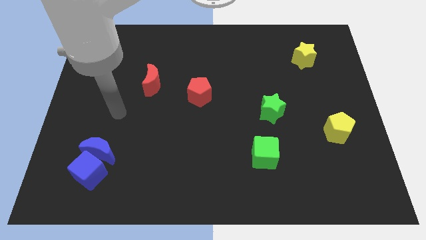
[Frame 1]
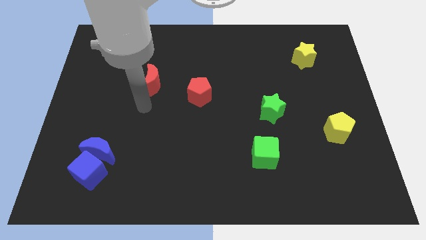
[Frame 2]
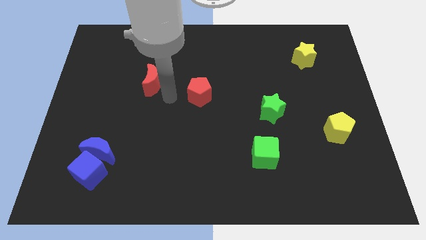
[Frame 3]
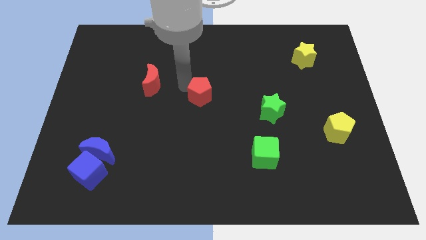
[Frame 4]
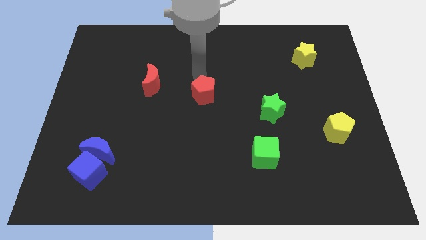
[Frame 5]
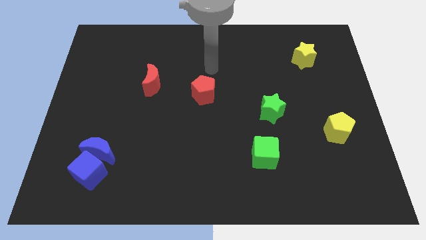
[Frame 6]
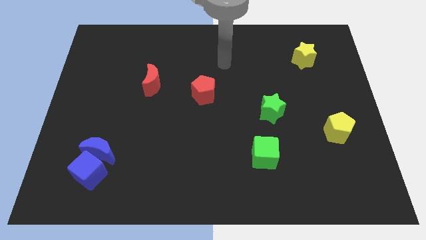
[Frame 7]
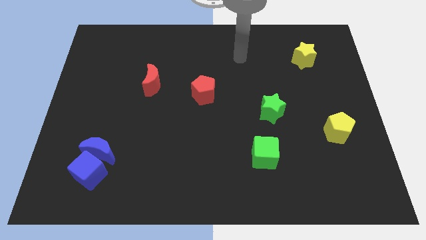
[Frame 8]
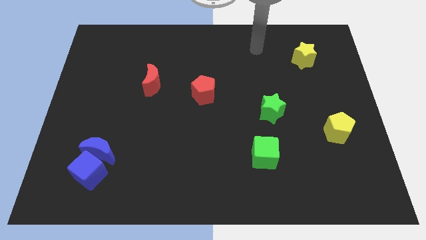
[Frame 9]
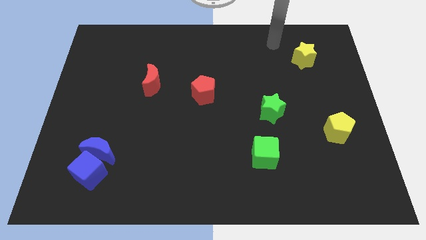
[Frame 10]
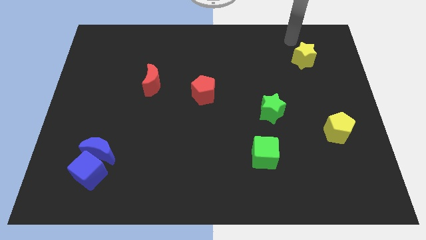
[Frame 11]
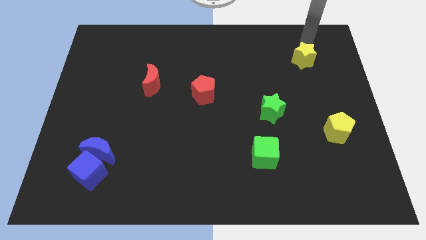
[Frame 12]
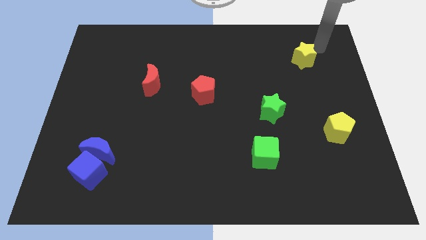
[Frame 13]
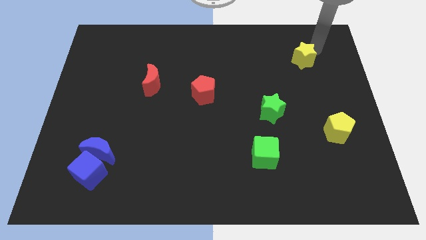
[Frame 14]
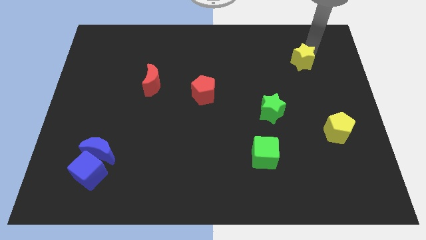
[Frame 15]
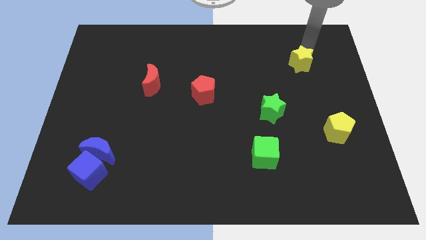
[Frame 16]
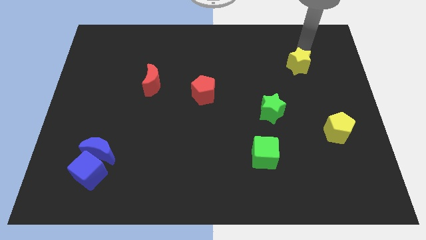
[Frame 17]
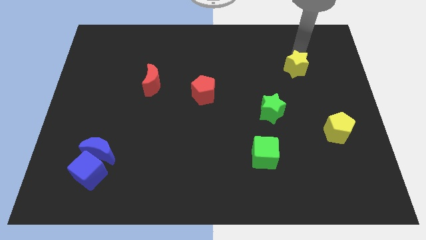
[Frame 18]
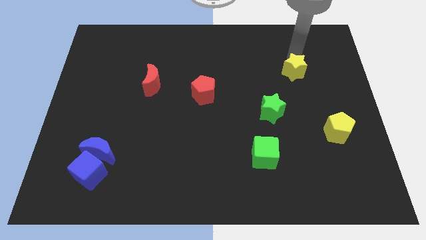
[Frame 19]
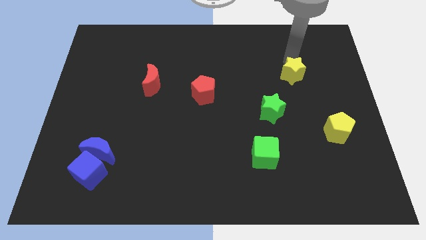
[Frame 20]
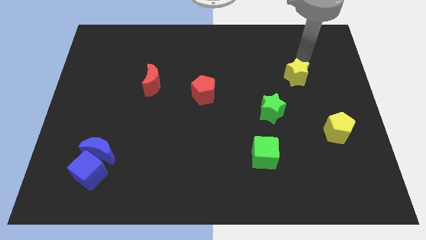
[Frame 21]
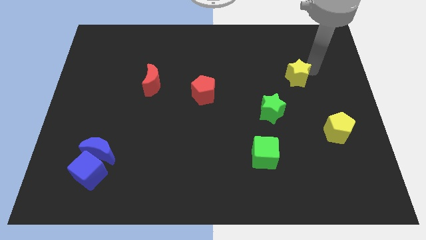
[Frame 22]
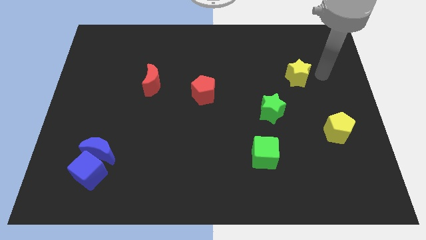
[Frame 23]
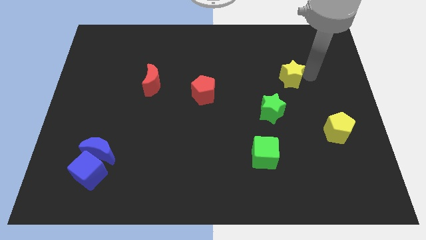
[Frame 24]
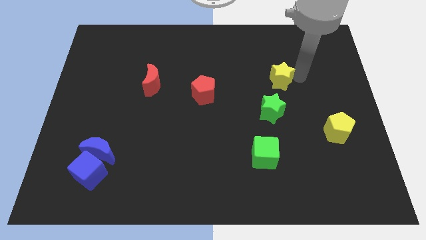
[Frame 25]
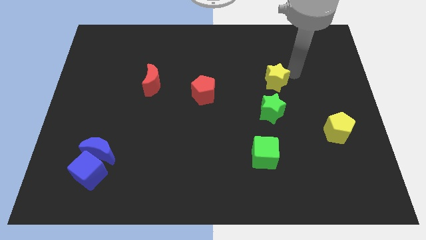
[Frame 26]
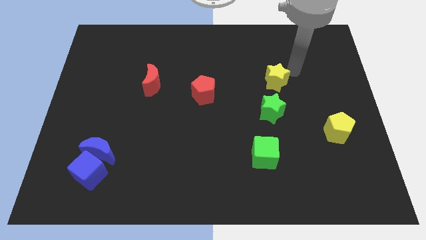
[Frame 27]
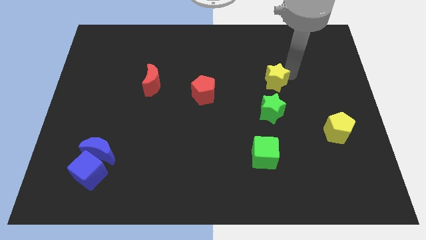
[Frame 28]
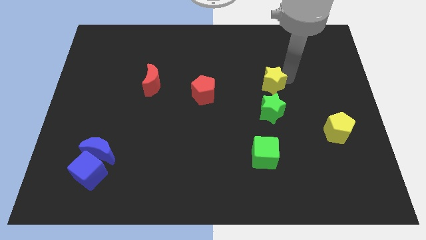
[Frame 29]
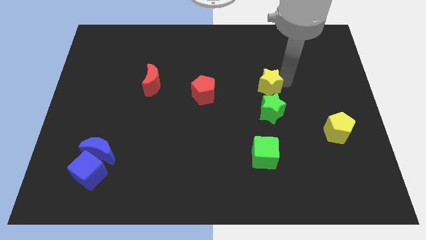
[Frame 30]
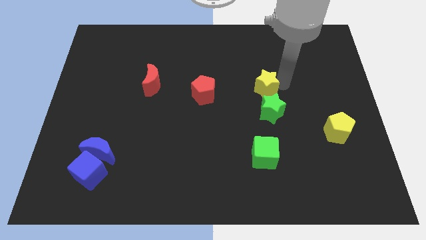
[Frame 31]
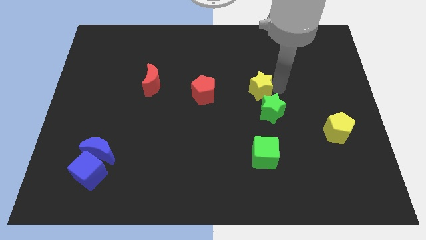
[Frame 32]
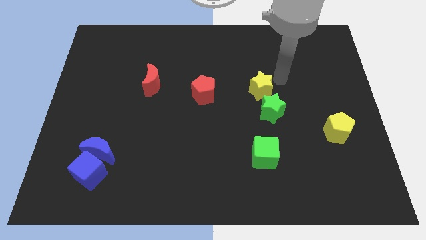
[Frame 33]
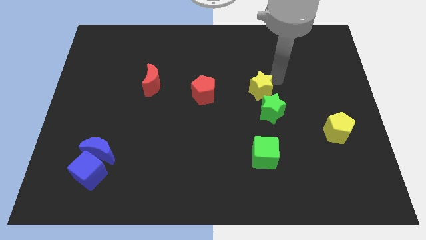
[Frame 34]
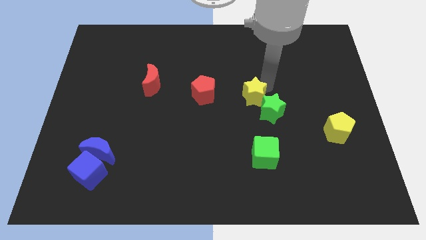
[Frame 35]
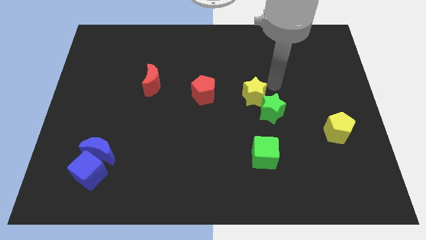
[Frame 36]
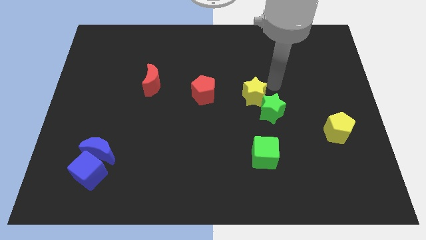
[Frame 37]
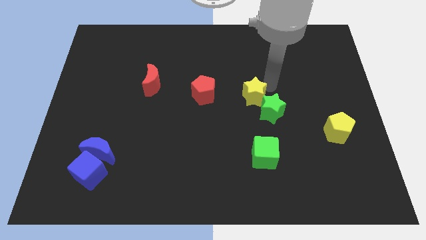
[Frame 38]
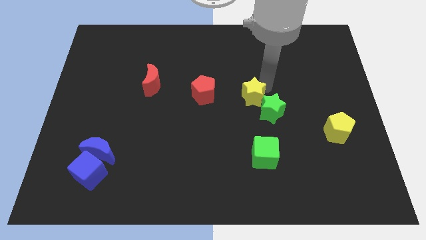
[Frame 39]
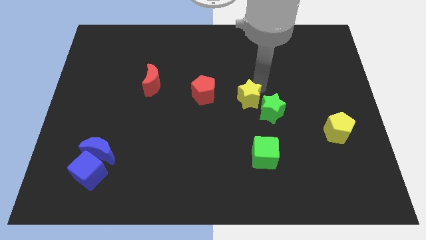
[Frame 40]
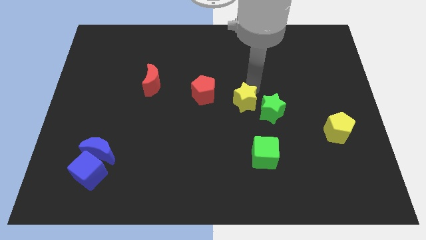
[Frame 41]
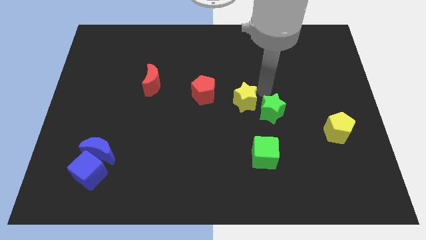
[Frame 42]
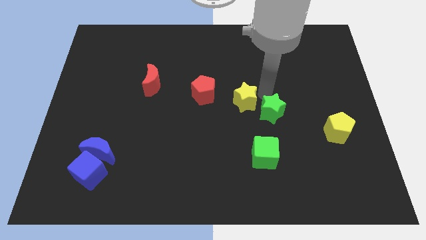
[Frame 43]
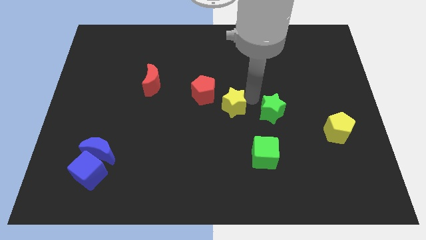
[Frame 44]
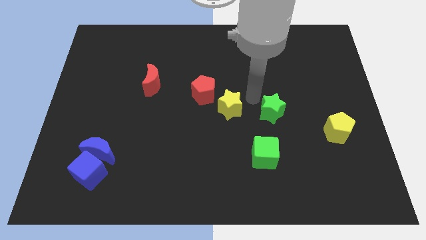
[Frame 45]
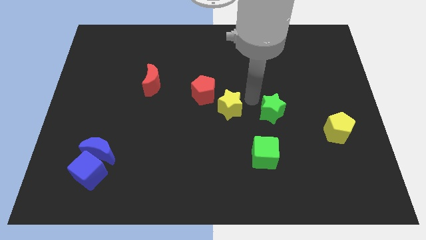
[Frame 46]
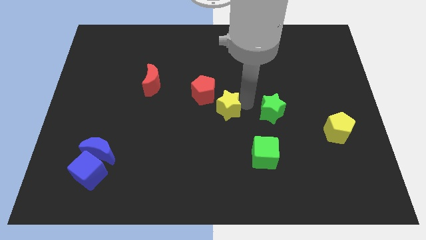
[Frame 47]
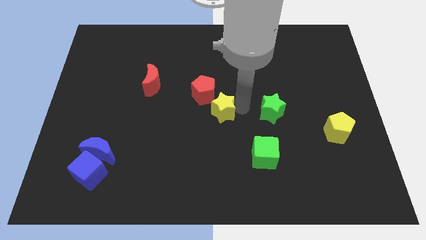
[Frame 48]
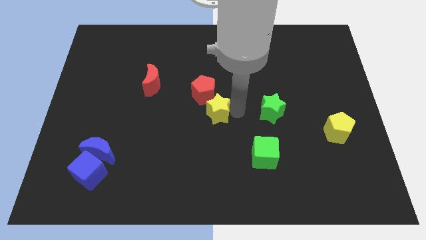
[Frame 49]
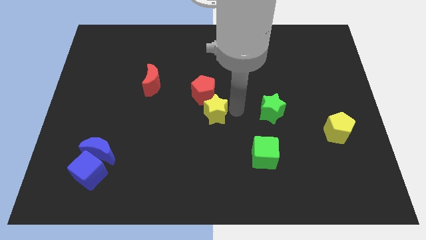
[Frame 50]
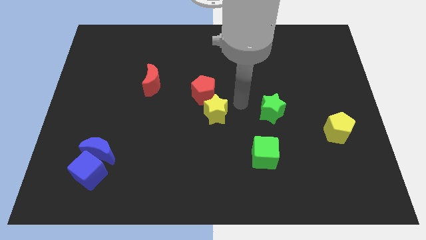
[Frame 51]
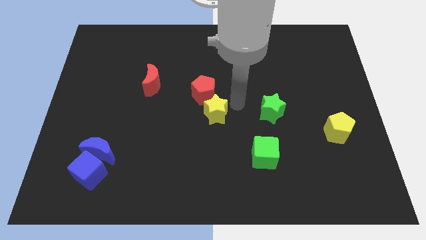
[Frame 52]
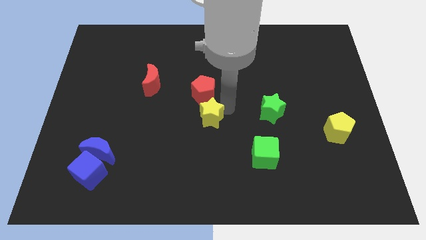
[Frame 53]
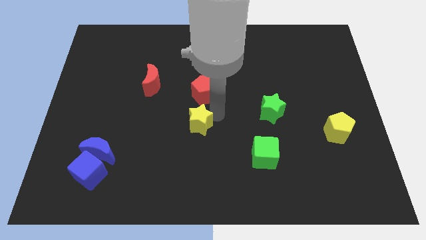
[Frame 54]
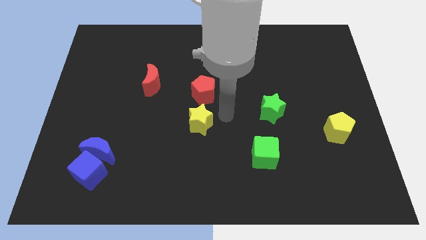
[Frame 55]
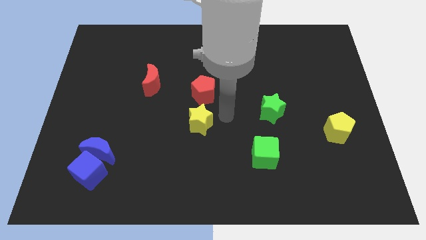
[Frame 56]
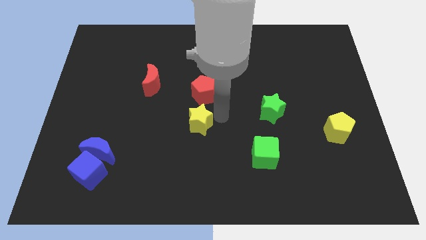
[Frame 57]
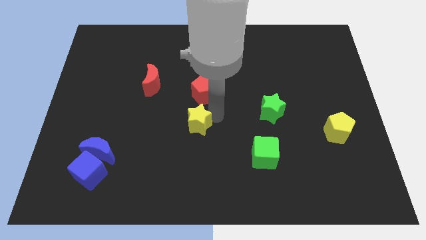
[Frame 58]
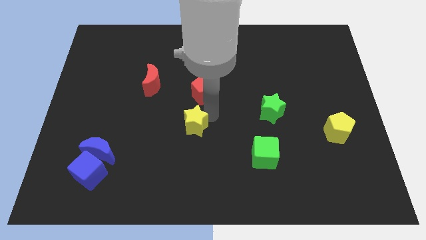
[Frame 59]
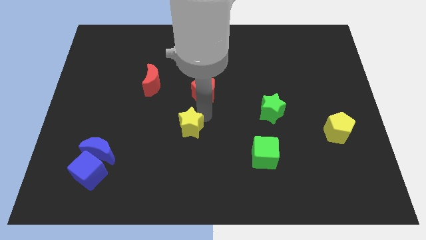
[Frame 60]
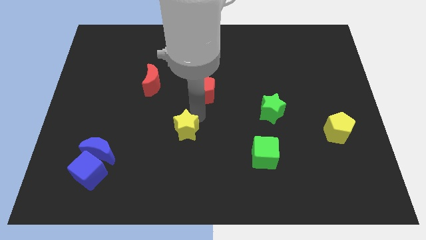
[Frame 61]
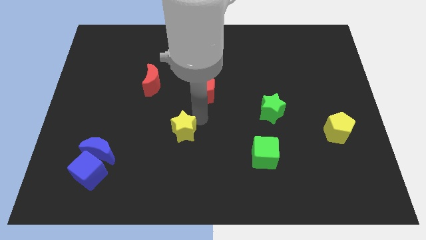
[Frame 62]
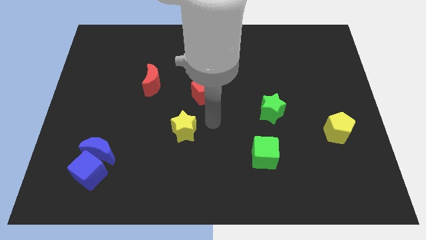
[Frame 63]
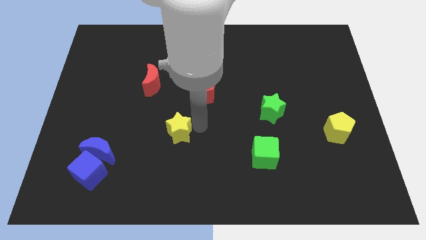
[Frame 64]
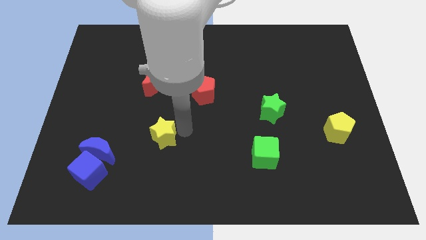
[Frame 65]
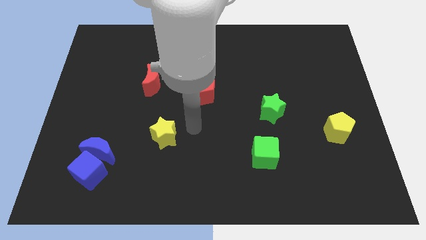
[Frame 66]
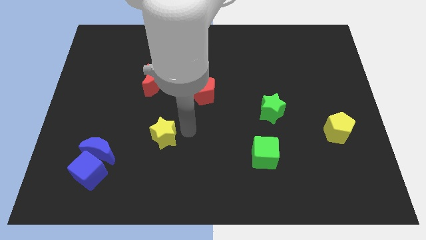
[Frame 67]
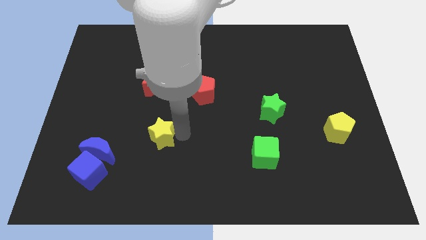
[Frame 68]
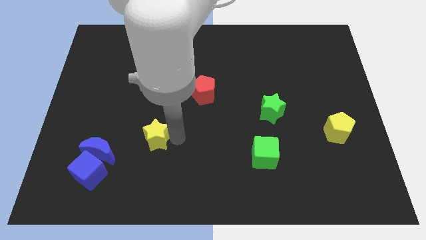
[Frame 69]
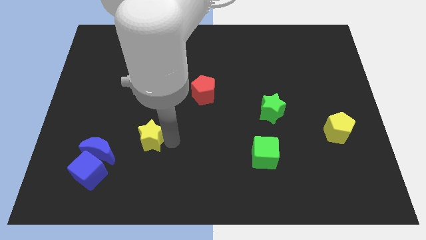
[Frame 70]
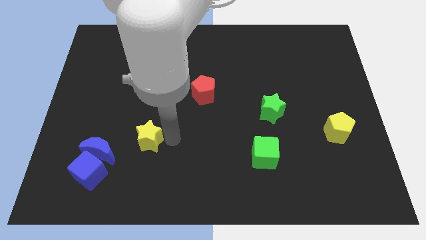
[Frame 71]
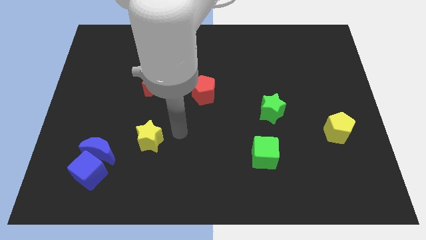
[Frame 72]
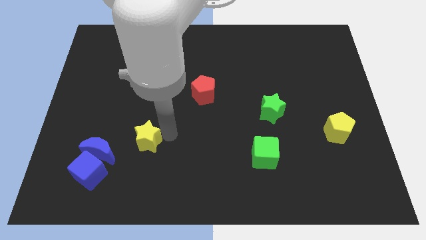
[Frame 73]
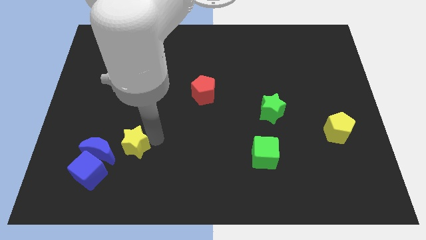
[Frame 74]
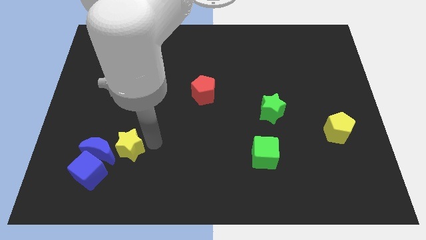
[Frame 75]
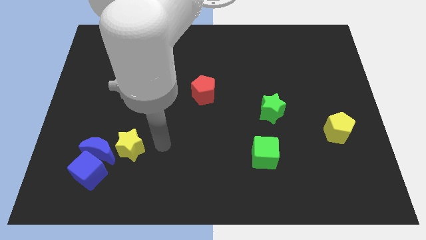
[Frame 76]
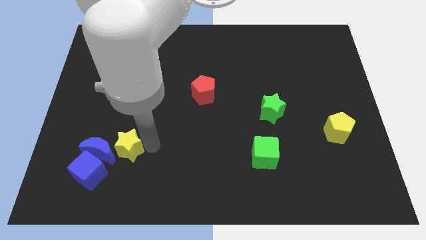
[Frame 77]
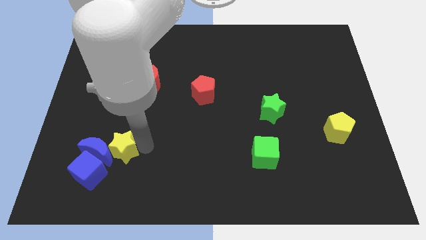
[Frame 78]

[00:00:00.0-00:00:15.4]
move the yellow star close to the blue moon
